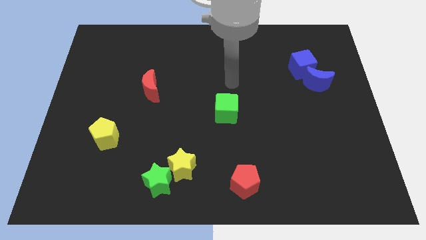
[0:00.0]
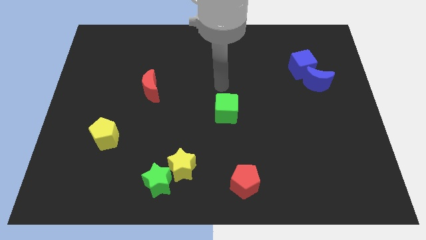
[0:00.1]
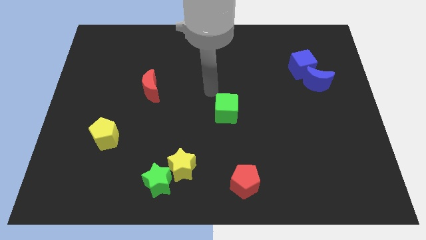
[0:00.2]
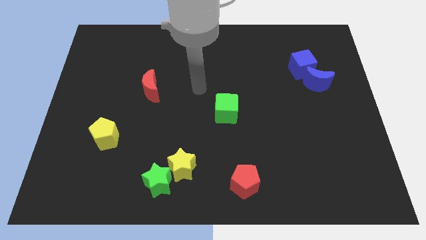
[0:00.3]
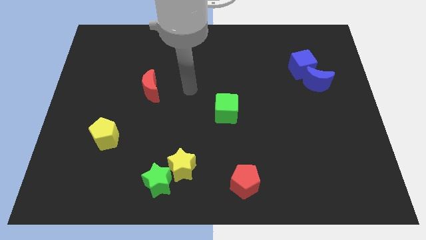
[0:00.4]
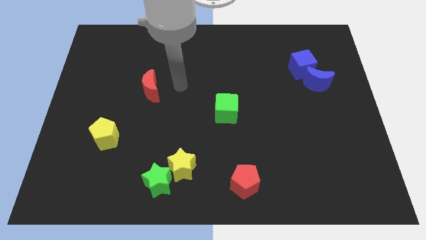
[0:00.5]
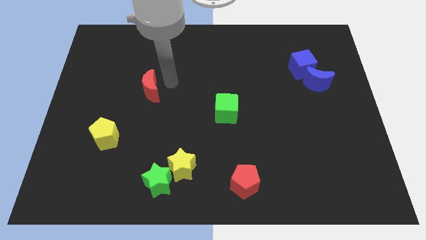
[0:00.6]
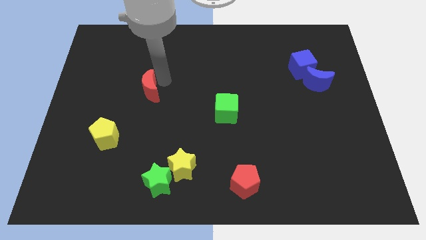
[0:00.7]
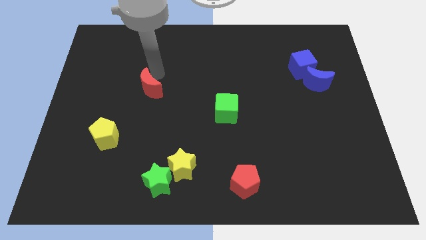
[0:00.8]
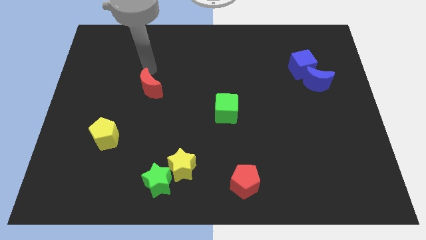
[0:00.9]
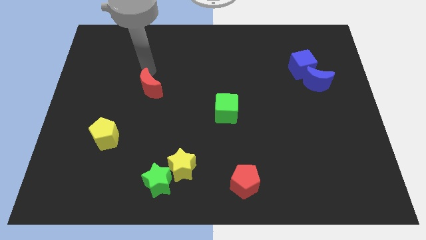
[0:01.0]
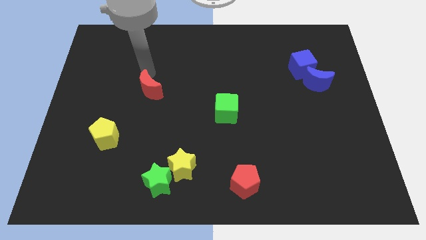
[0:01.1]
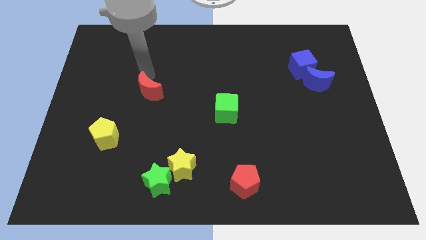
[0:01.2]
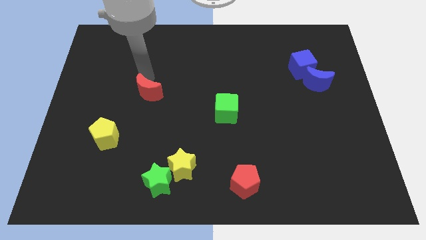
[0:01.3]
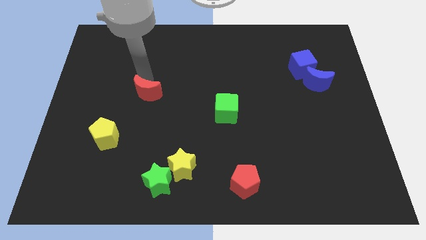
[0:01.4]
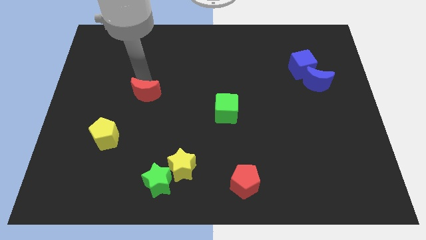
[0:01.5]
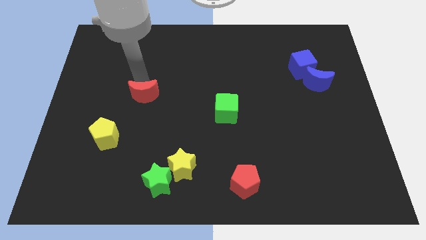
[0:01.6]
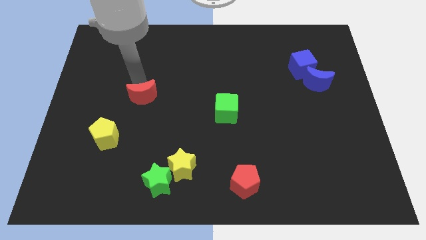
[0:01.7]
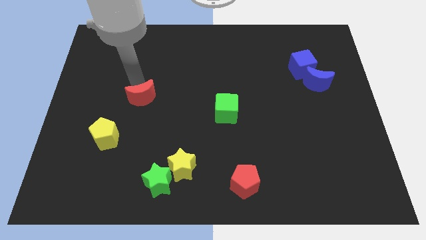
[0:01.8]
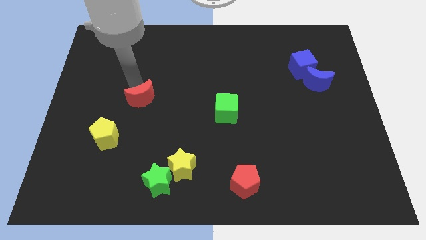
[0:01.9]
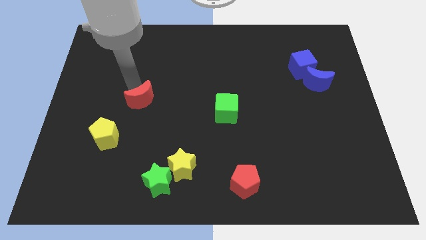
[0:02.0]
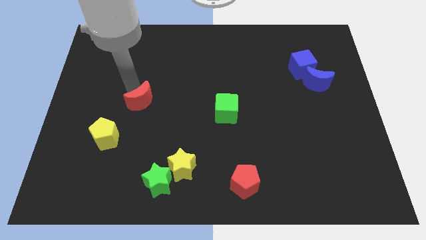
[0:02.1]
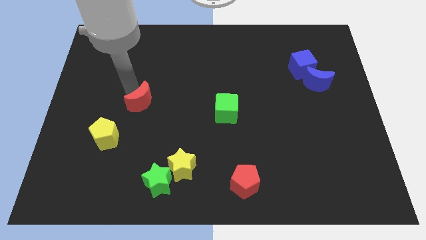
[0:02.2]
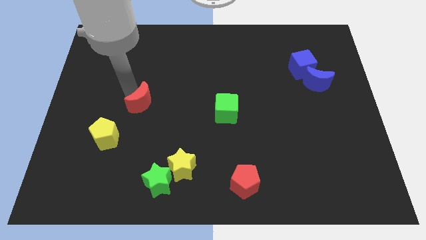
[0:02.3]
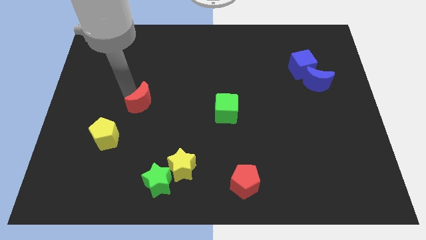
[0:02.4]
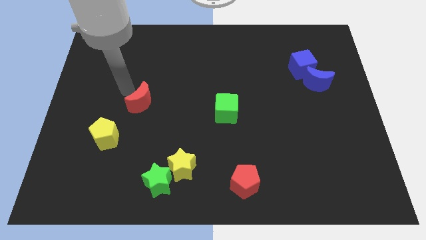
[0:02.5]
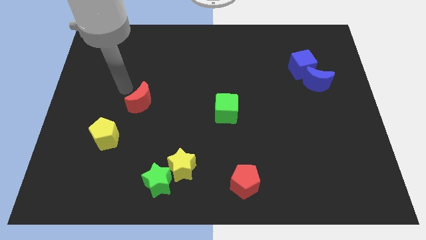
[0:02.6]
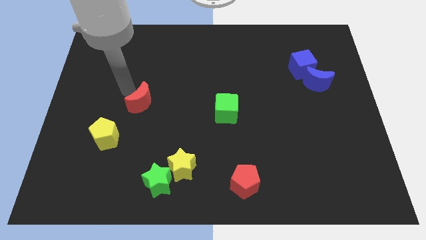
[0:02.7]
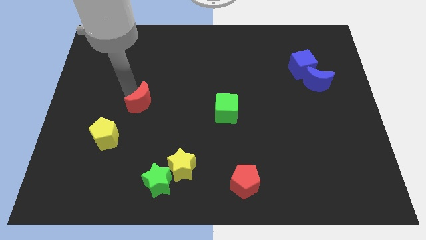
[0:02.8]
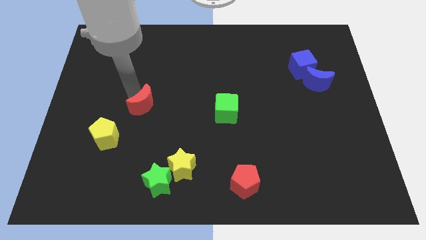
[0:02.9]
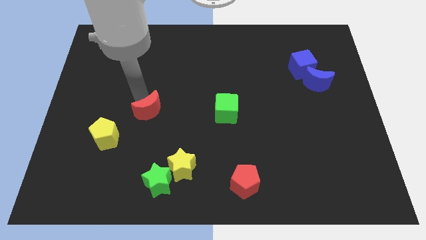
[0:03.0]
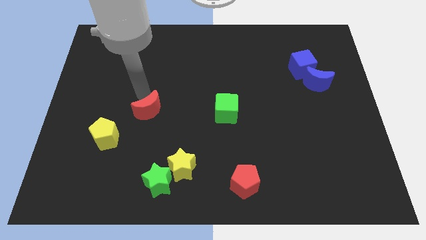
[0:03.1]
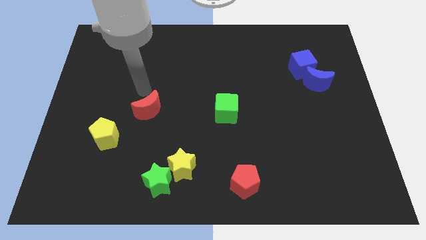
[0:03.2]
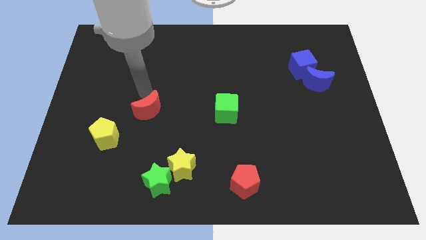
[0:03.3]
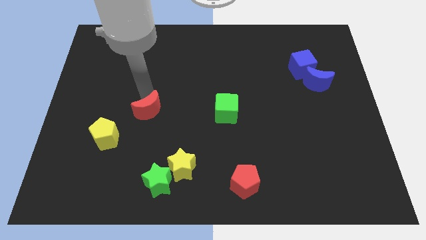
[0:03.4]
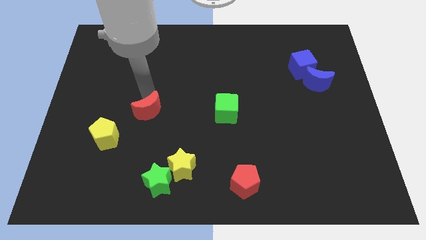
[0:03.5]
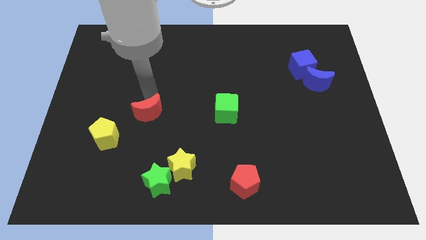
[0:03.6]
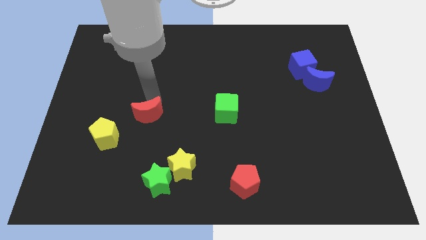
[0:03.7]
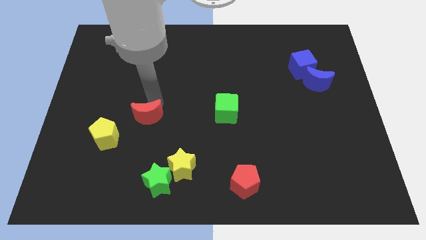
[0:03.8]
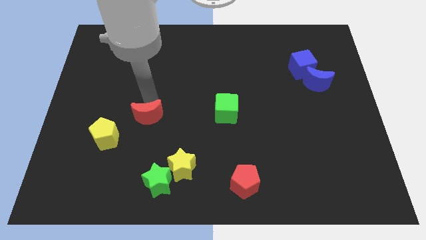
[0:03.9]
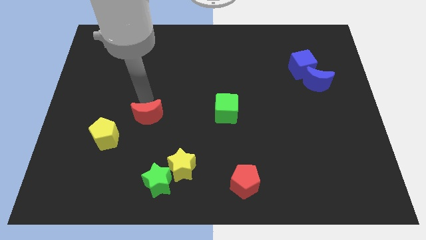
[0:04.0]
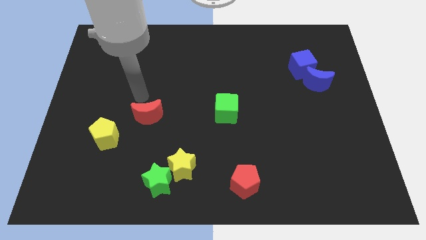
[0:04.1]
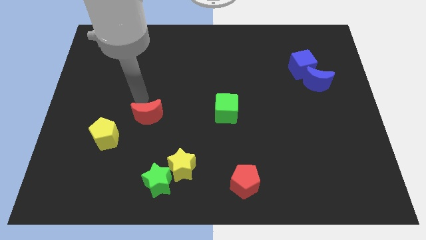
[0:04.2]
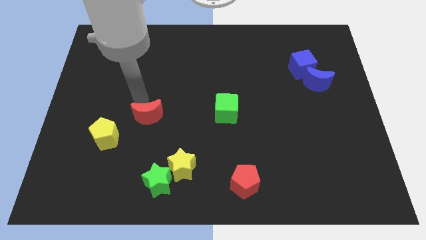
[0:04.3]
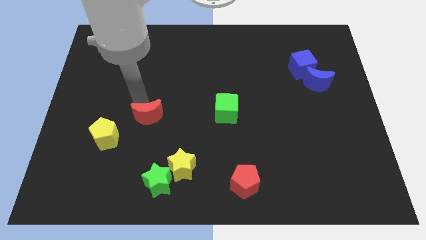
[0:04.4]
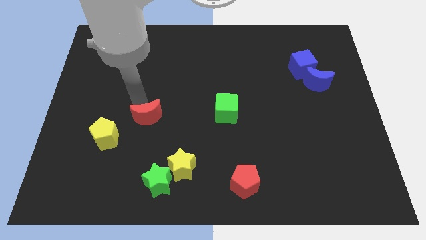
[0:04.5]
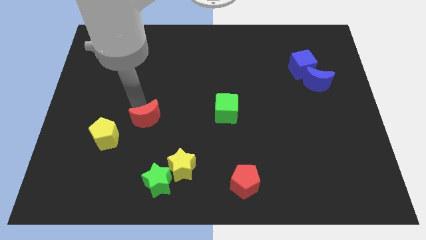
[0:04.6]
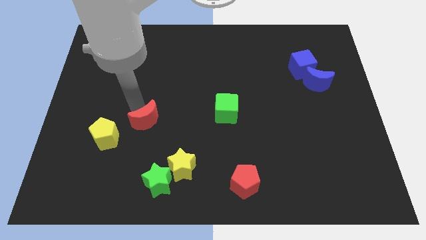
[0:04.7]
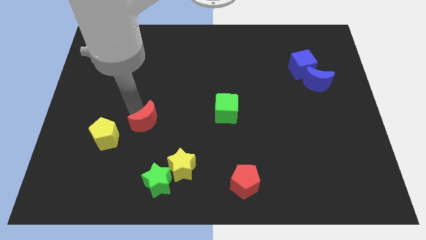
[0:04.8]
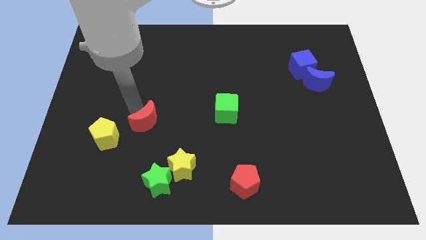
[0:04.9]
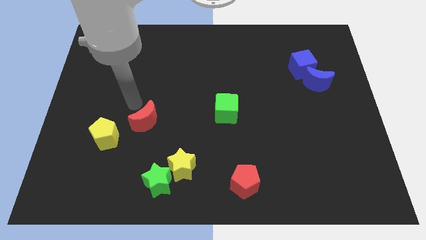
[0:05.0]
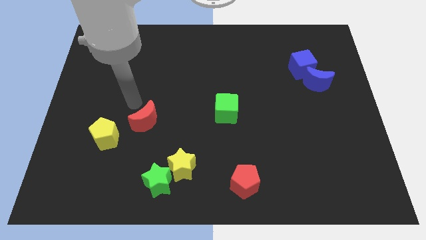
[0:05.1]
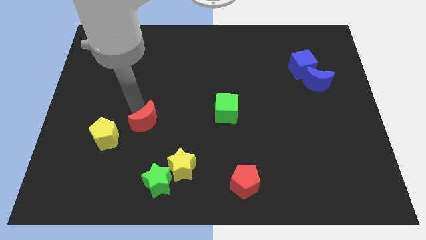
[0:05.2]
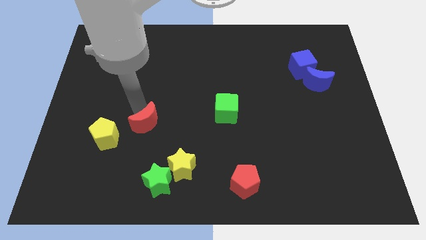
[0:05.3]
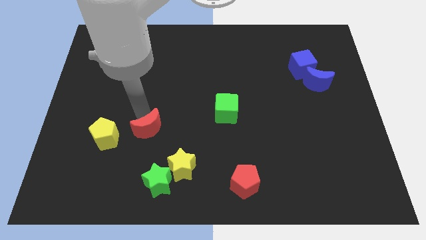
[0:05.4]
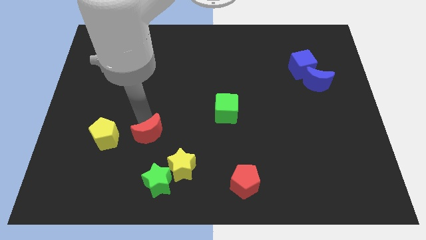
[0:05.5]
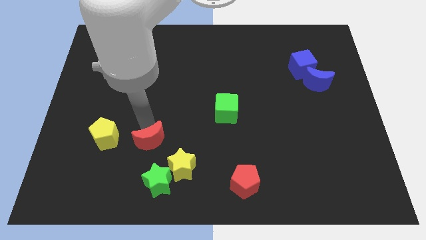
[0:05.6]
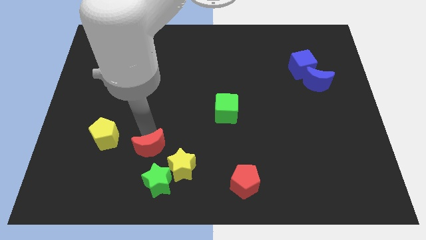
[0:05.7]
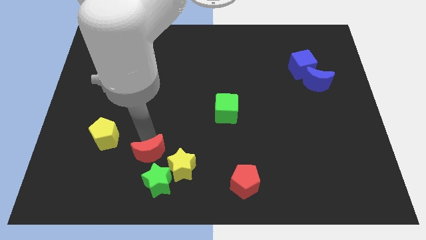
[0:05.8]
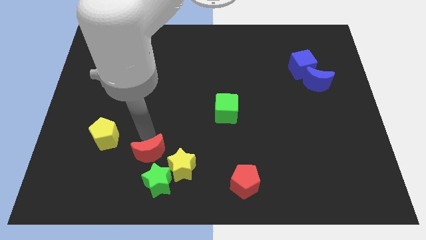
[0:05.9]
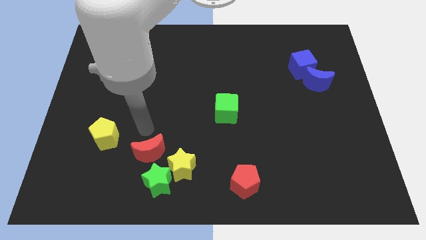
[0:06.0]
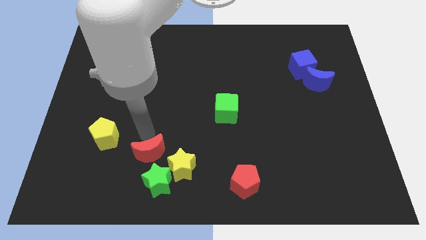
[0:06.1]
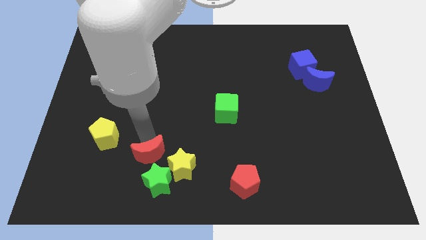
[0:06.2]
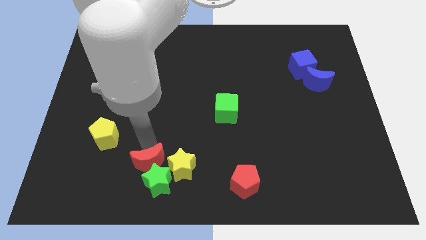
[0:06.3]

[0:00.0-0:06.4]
push the red moon towards the green star

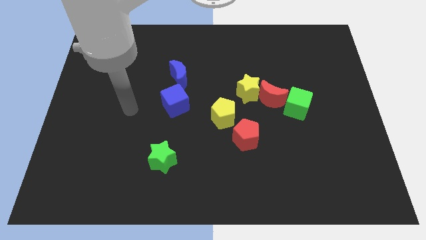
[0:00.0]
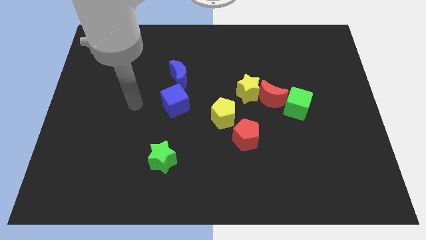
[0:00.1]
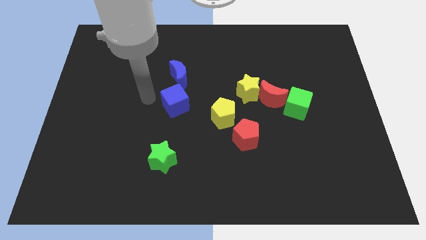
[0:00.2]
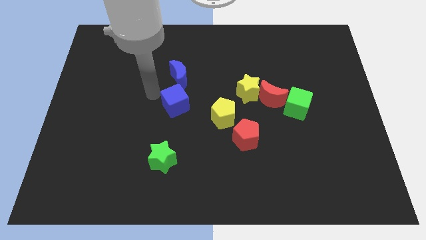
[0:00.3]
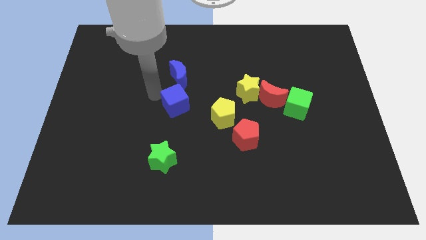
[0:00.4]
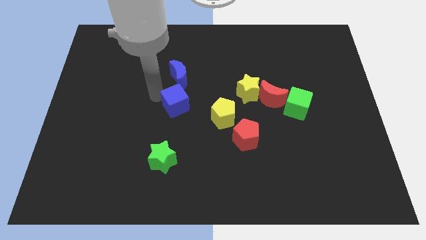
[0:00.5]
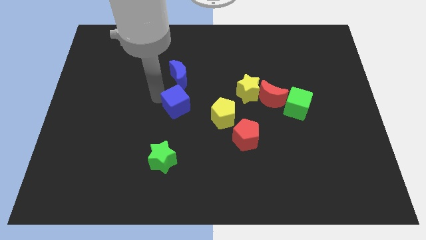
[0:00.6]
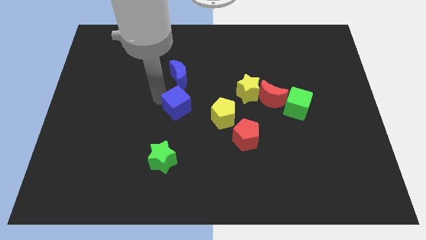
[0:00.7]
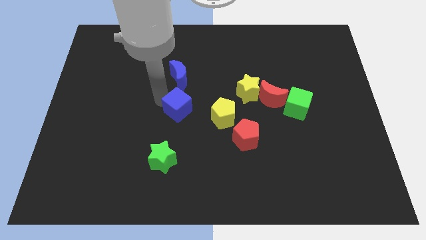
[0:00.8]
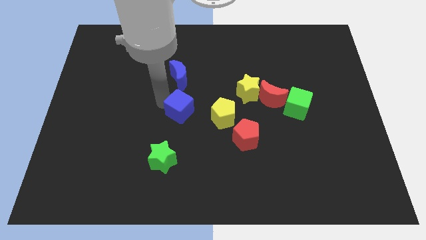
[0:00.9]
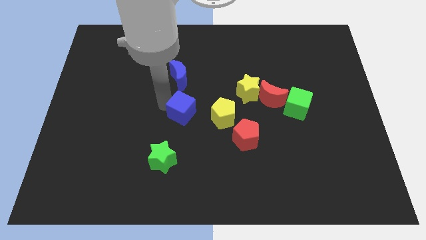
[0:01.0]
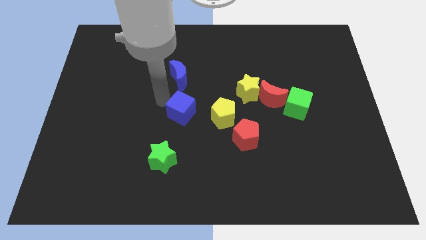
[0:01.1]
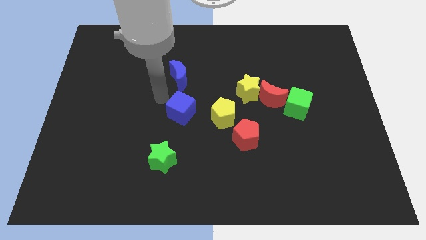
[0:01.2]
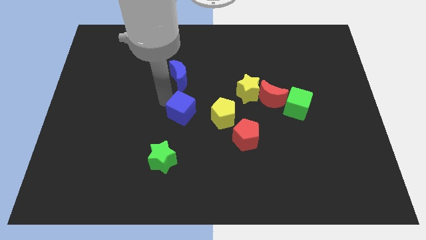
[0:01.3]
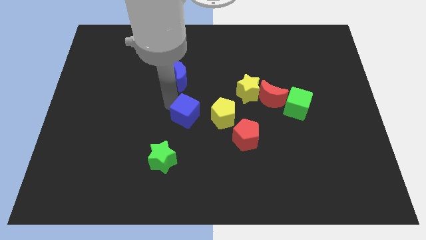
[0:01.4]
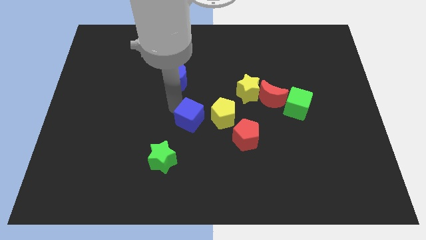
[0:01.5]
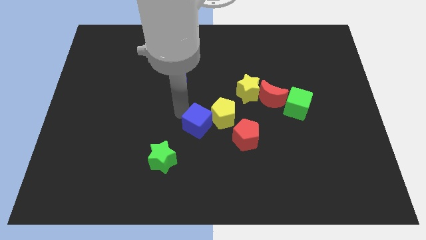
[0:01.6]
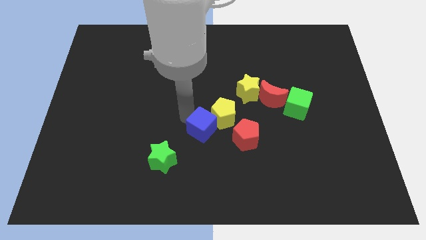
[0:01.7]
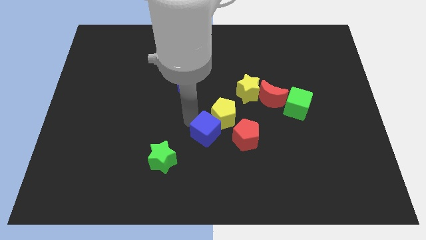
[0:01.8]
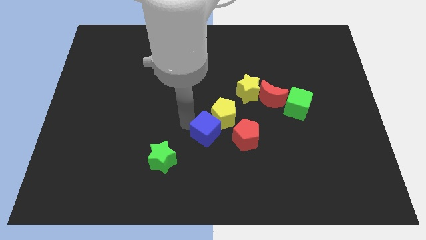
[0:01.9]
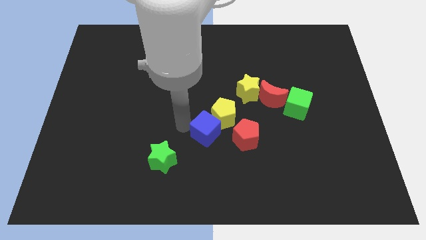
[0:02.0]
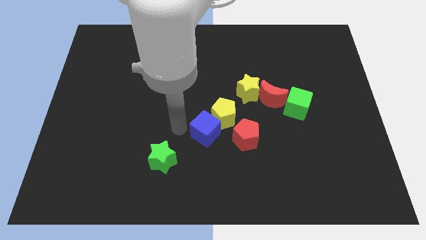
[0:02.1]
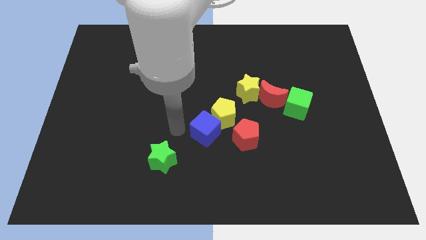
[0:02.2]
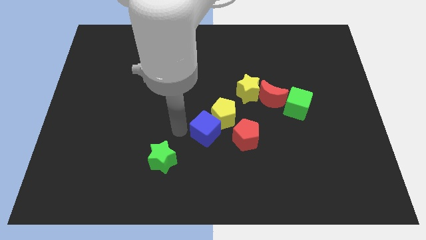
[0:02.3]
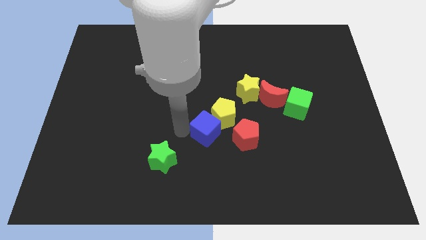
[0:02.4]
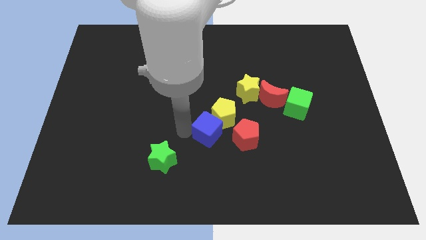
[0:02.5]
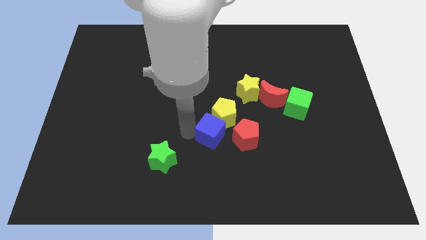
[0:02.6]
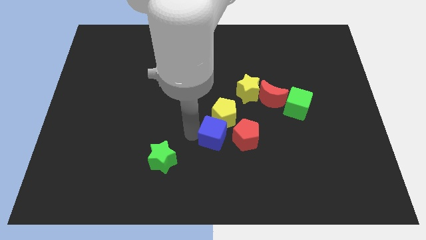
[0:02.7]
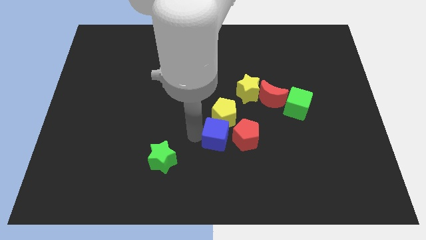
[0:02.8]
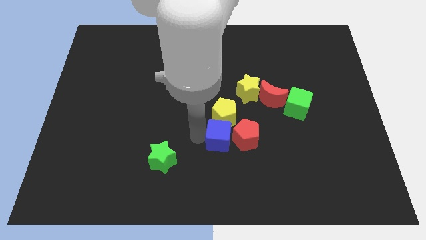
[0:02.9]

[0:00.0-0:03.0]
push the blue cube towards the red pentagon
